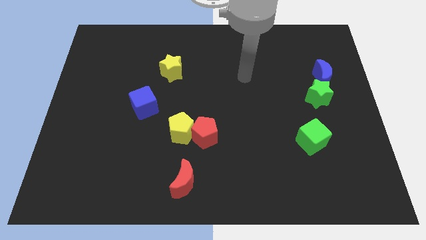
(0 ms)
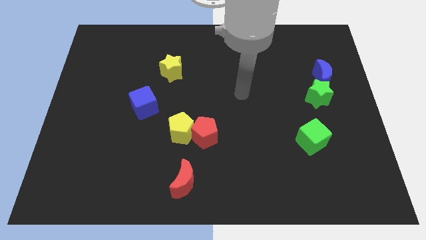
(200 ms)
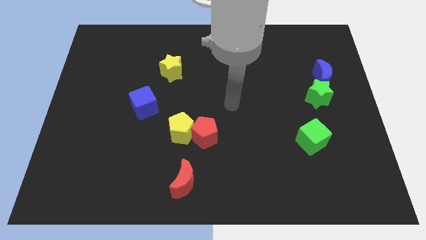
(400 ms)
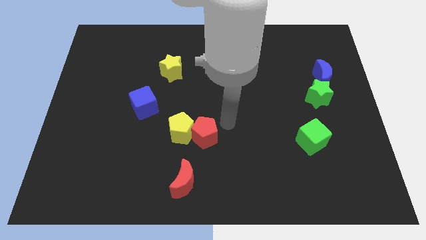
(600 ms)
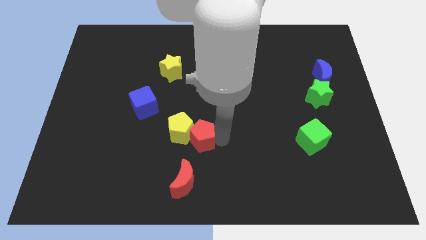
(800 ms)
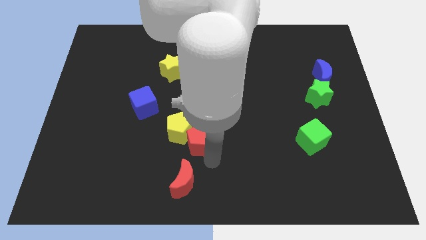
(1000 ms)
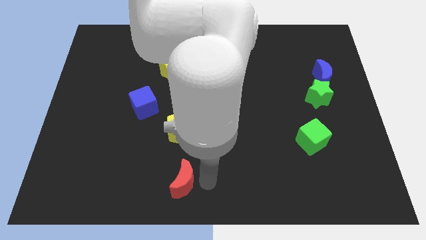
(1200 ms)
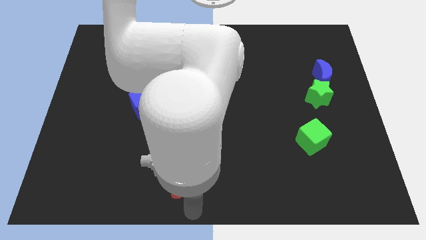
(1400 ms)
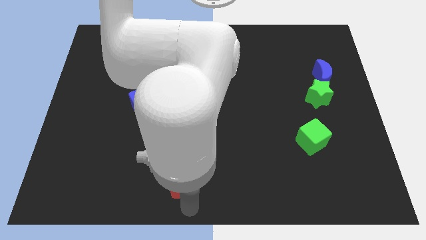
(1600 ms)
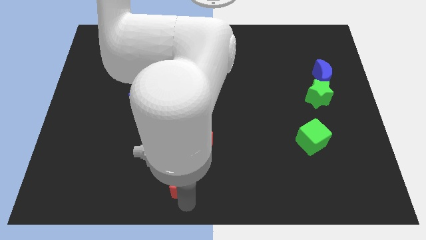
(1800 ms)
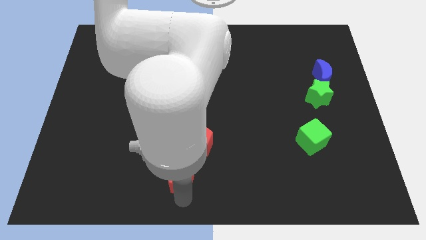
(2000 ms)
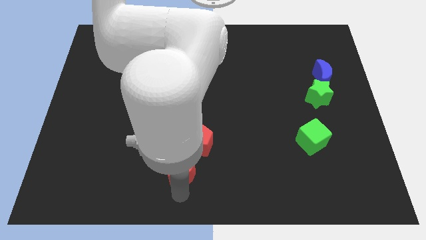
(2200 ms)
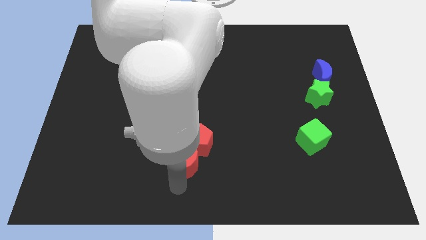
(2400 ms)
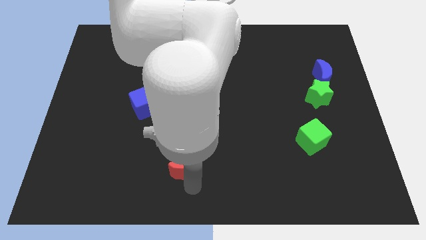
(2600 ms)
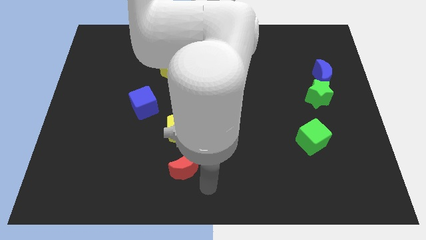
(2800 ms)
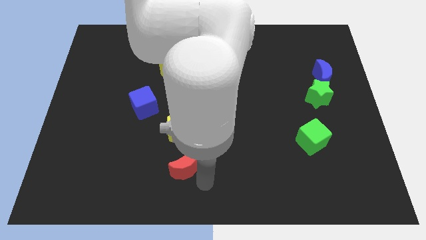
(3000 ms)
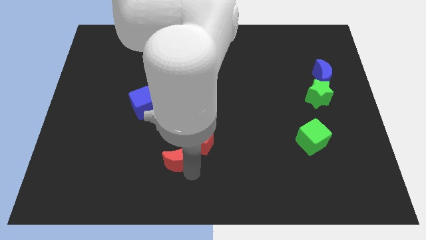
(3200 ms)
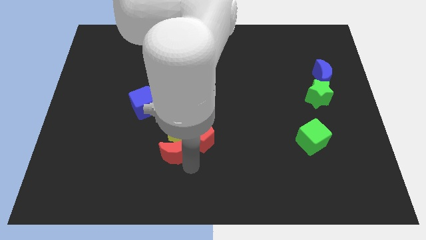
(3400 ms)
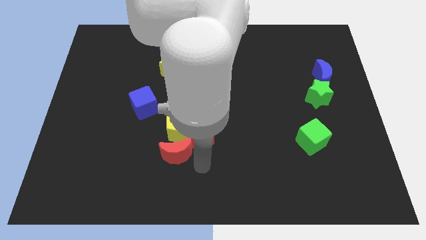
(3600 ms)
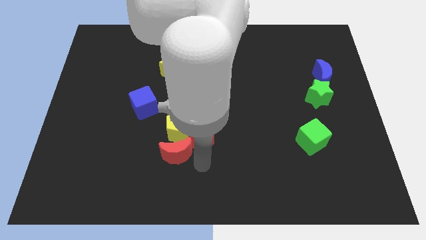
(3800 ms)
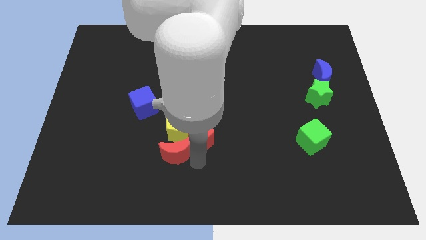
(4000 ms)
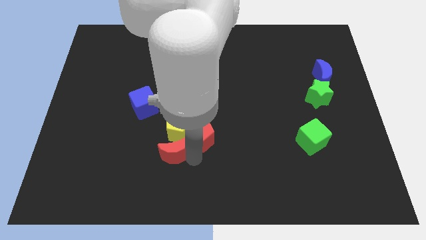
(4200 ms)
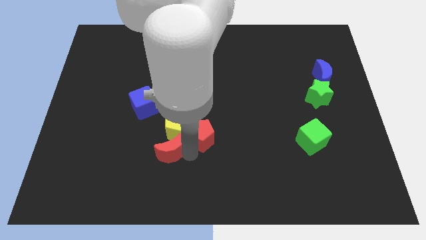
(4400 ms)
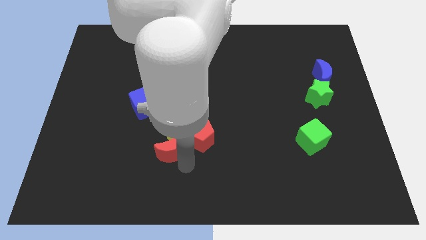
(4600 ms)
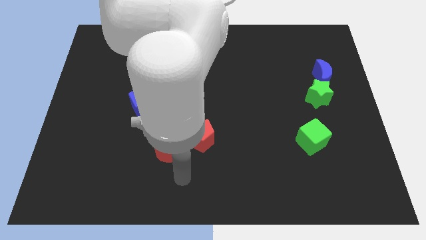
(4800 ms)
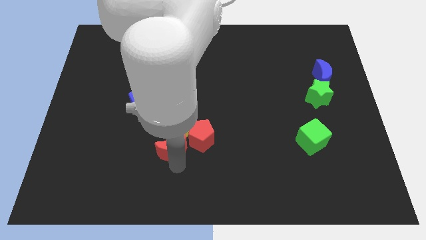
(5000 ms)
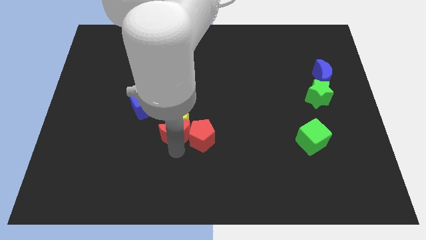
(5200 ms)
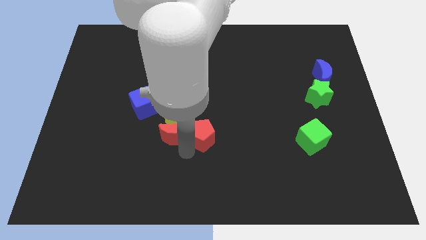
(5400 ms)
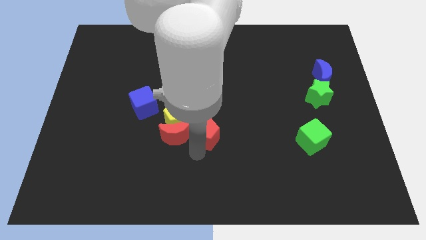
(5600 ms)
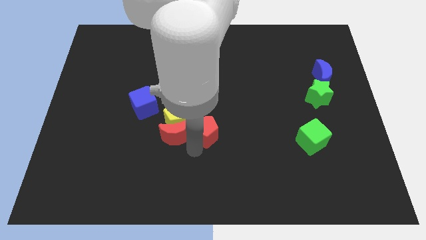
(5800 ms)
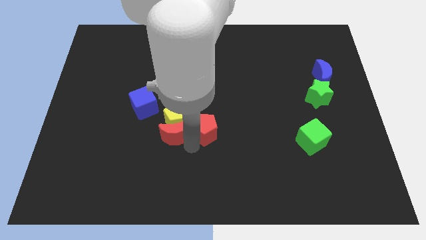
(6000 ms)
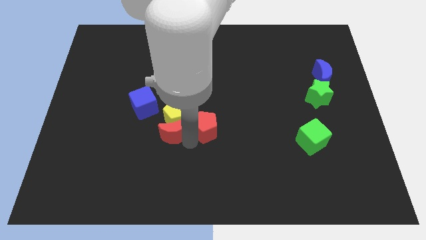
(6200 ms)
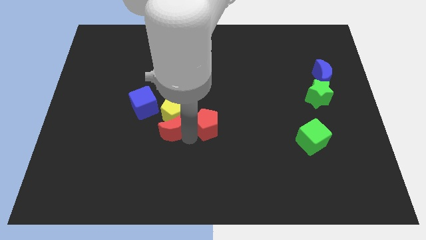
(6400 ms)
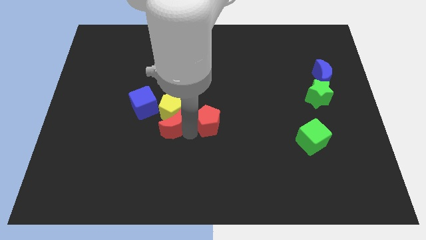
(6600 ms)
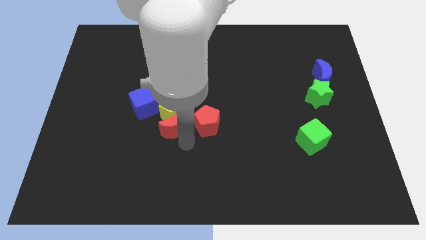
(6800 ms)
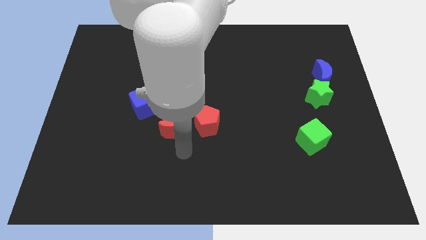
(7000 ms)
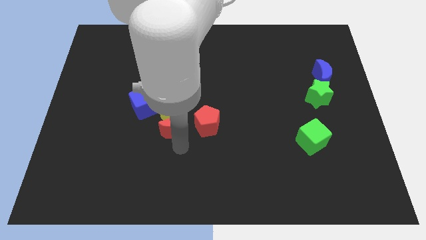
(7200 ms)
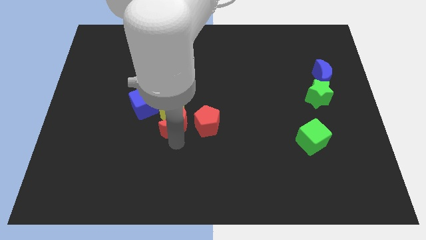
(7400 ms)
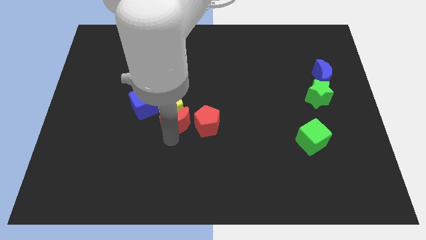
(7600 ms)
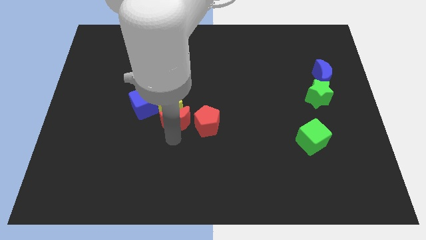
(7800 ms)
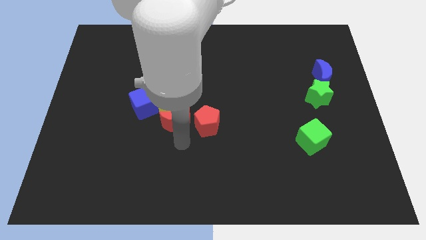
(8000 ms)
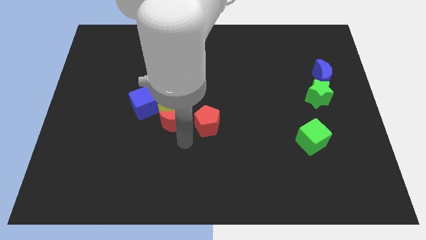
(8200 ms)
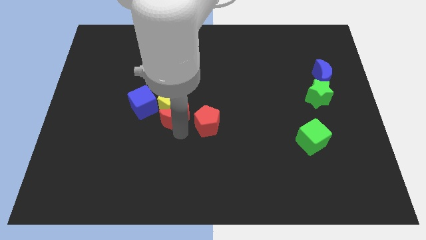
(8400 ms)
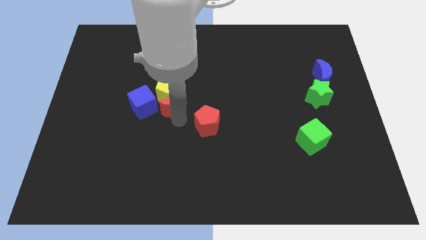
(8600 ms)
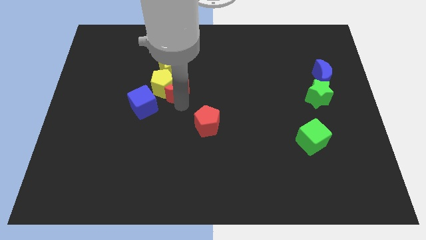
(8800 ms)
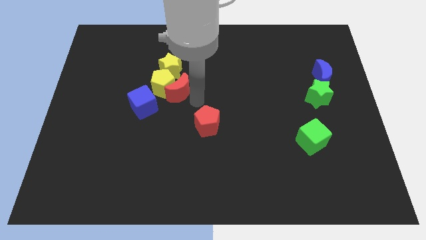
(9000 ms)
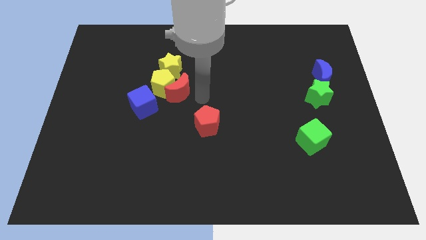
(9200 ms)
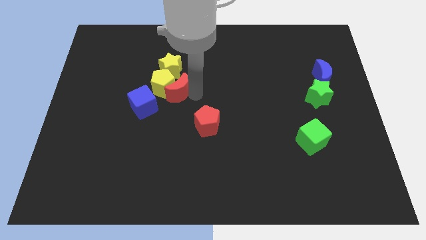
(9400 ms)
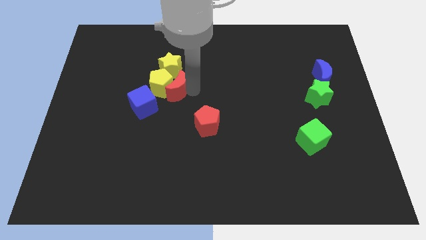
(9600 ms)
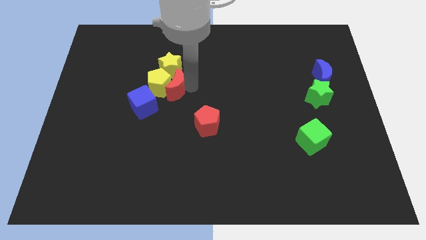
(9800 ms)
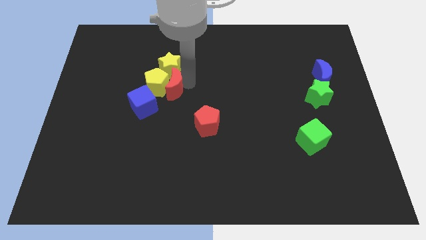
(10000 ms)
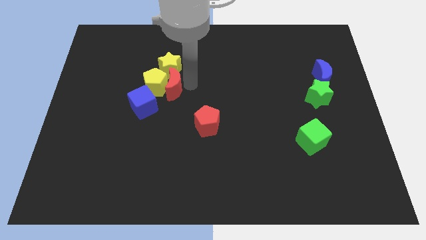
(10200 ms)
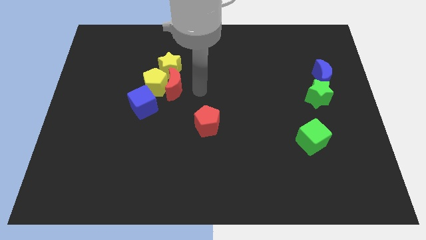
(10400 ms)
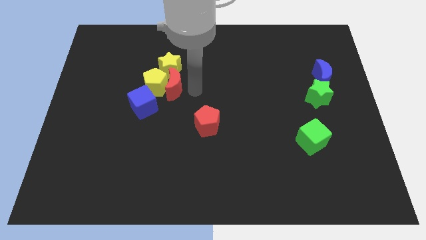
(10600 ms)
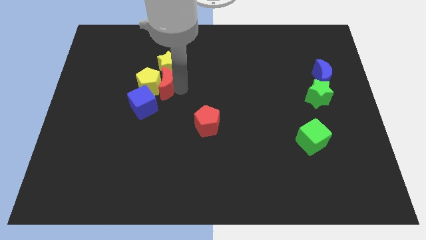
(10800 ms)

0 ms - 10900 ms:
move the red moon to the bottom left side of the yellow star

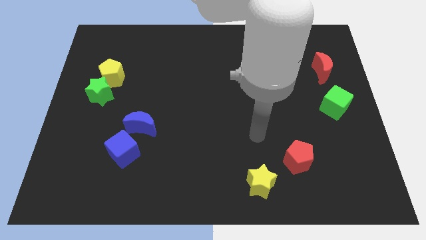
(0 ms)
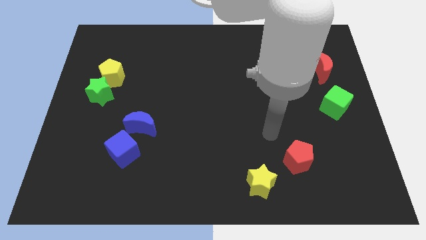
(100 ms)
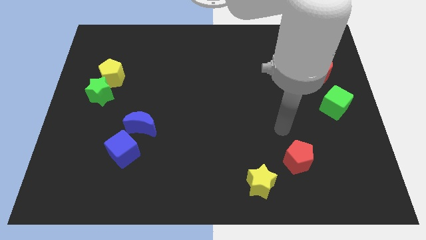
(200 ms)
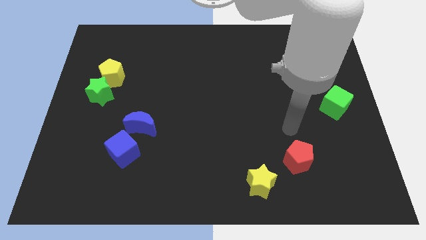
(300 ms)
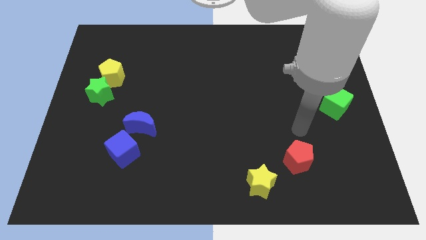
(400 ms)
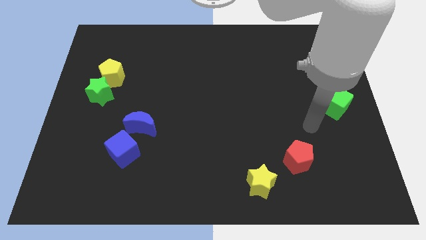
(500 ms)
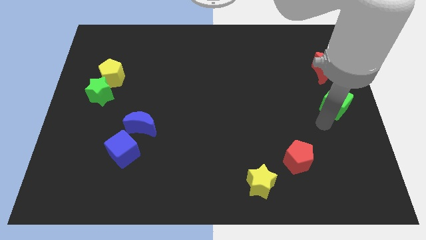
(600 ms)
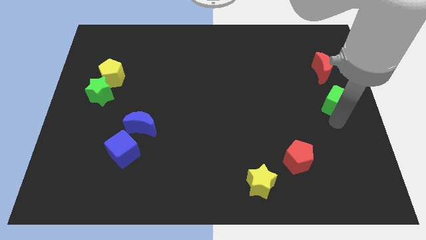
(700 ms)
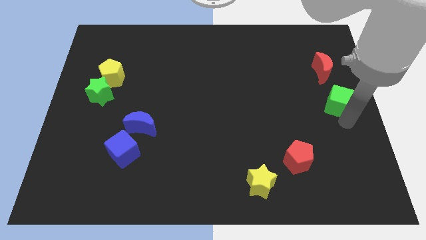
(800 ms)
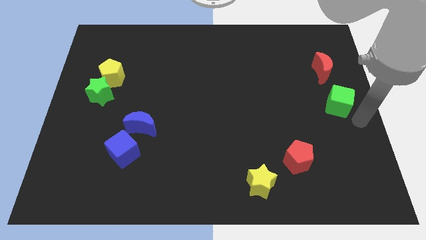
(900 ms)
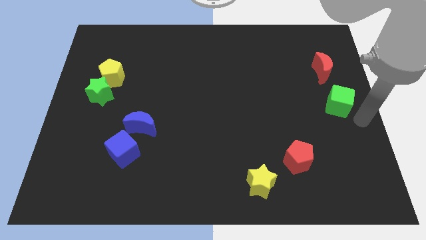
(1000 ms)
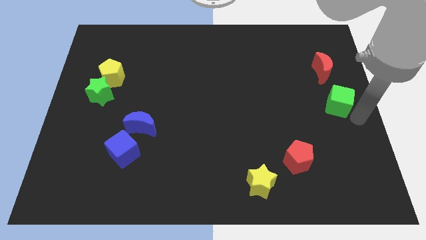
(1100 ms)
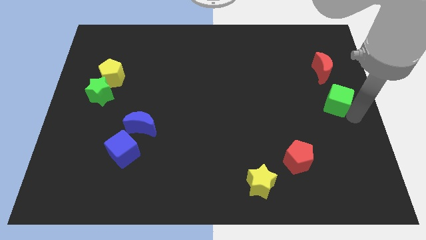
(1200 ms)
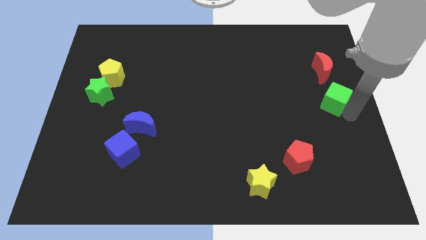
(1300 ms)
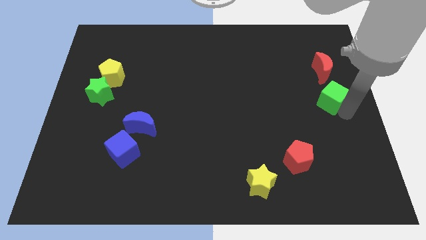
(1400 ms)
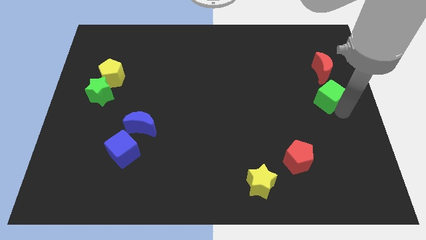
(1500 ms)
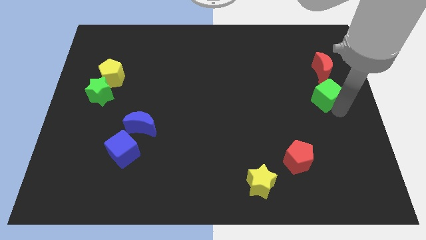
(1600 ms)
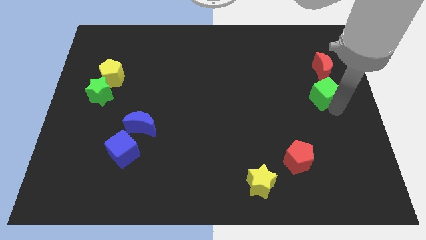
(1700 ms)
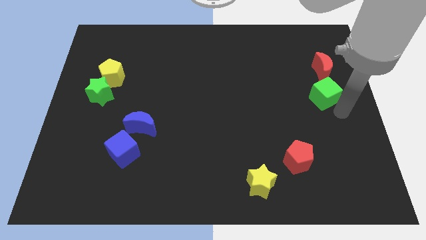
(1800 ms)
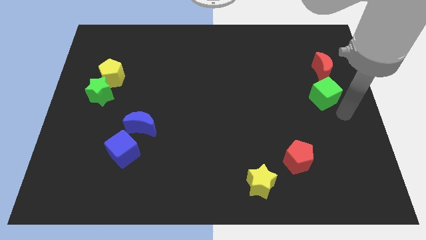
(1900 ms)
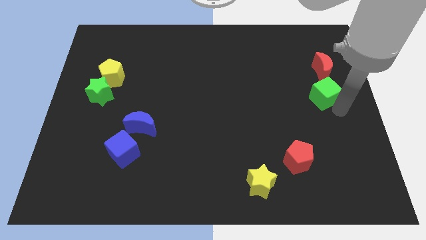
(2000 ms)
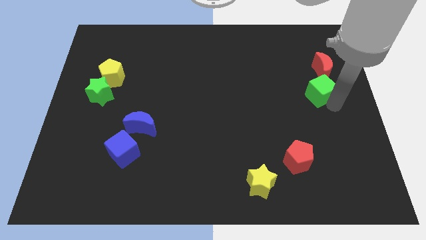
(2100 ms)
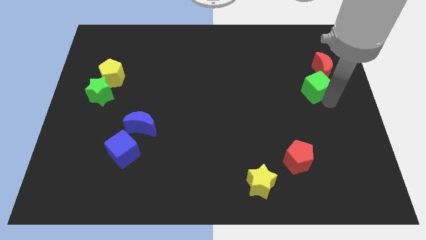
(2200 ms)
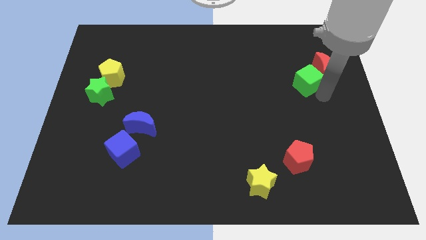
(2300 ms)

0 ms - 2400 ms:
put the green cube to the left of the red moon
